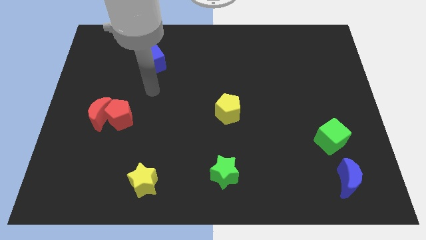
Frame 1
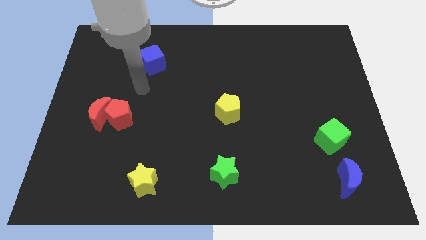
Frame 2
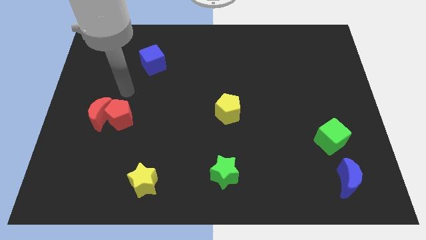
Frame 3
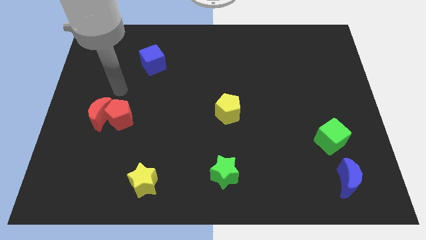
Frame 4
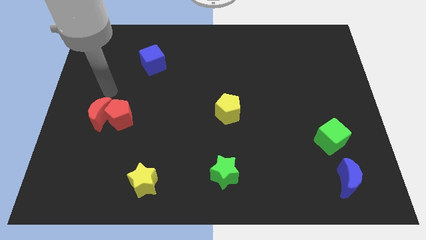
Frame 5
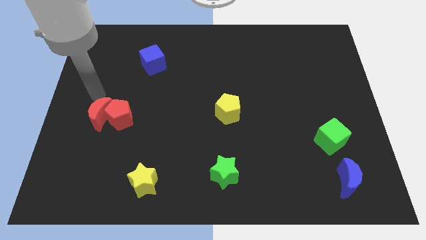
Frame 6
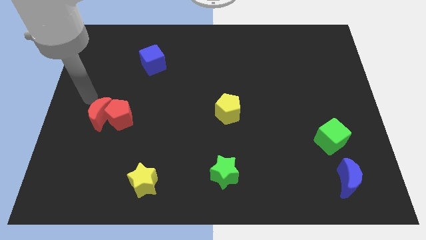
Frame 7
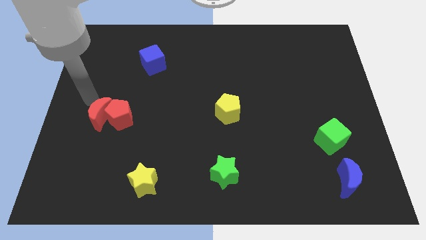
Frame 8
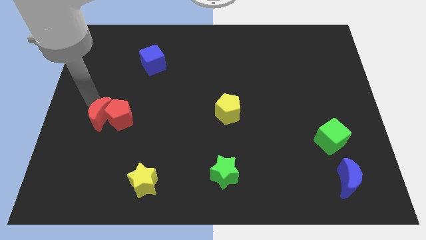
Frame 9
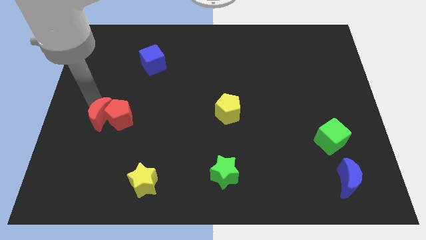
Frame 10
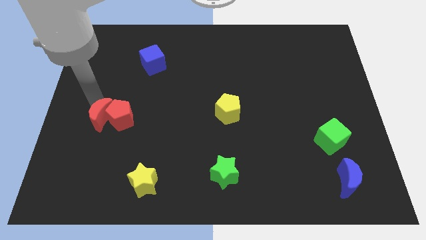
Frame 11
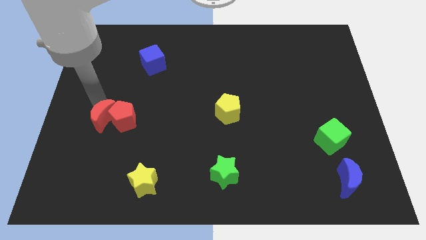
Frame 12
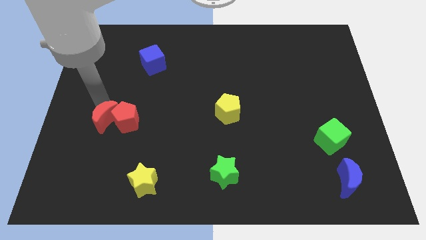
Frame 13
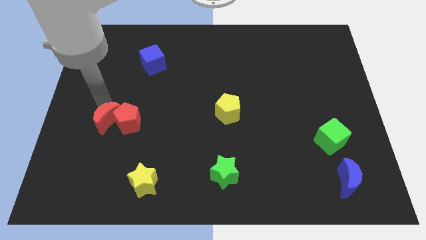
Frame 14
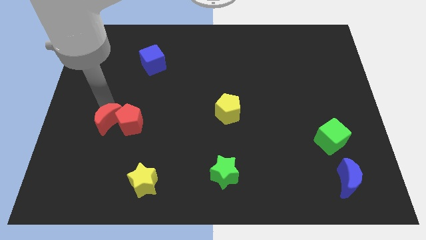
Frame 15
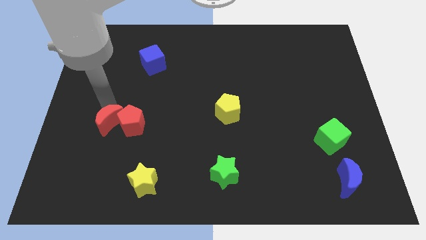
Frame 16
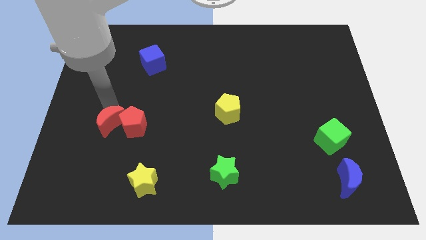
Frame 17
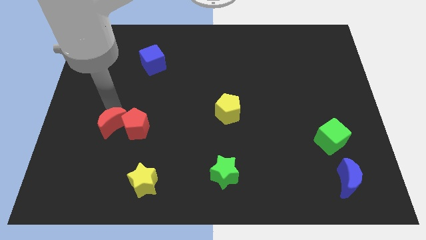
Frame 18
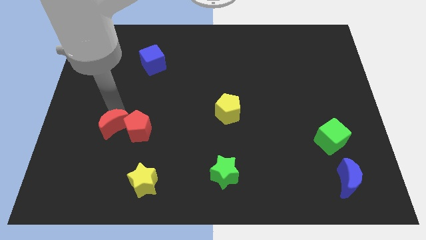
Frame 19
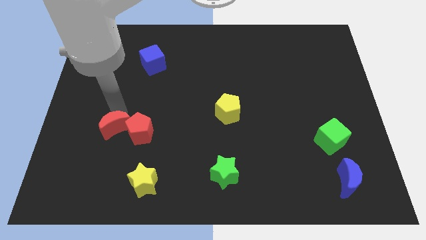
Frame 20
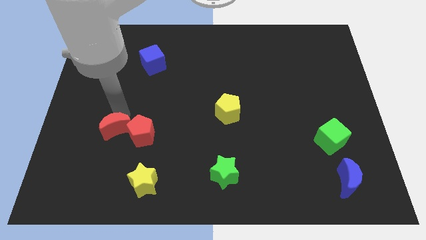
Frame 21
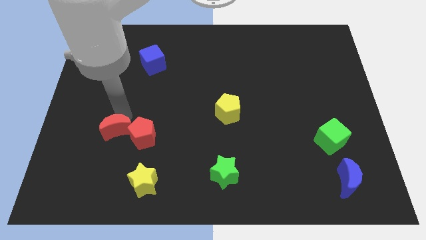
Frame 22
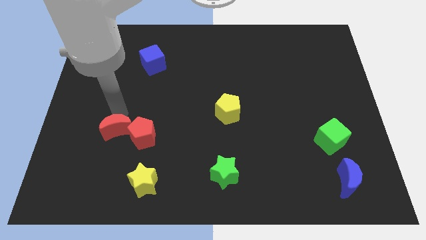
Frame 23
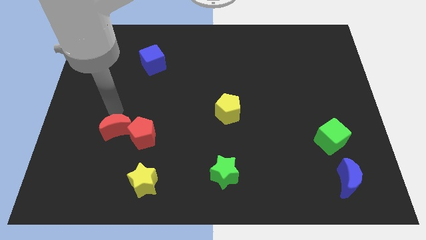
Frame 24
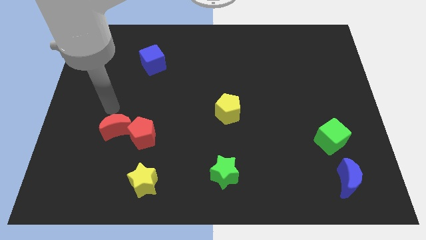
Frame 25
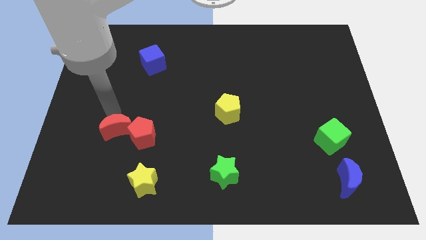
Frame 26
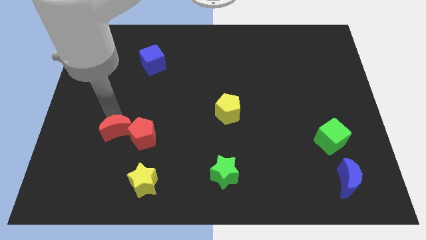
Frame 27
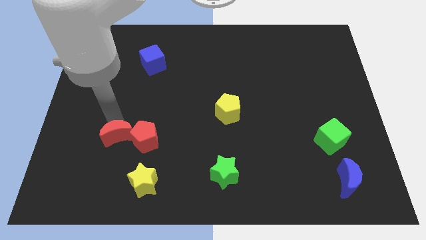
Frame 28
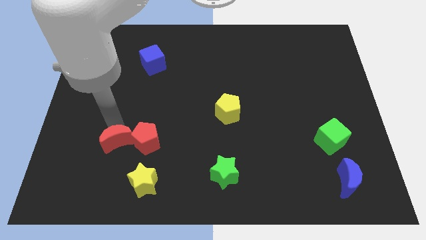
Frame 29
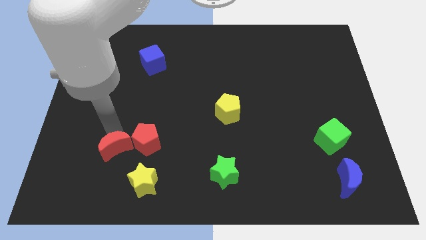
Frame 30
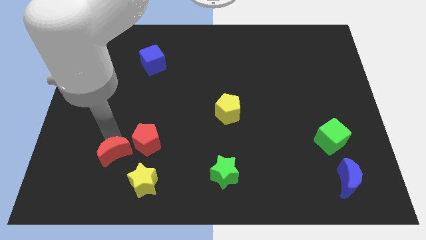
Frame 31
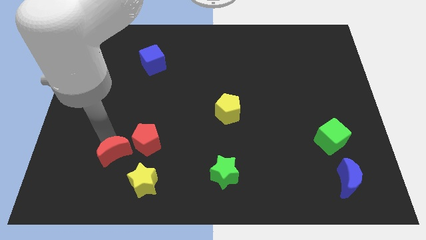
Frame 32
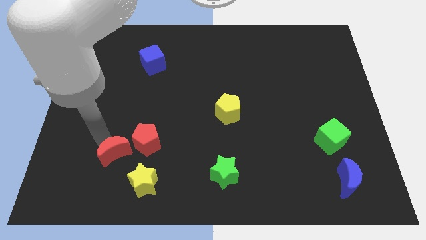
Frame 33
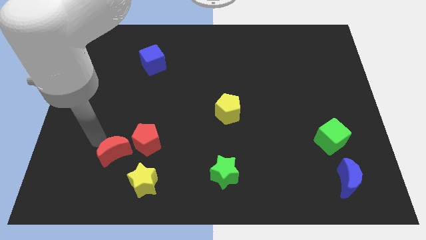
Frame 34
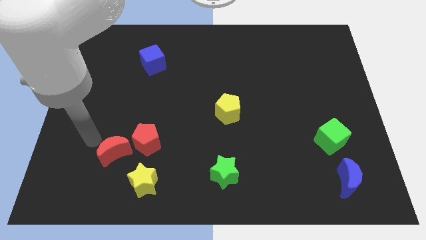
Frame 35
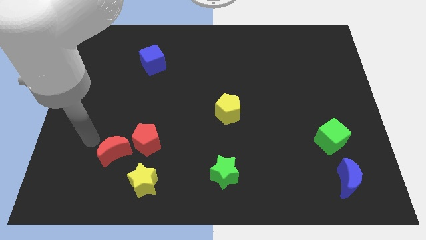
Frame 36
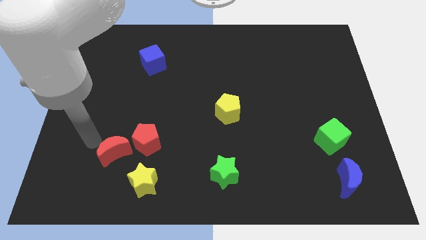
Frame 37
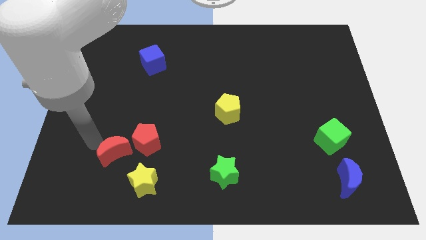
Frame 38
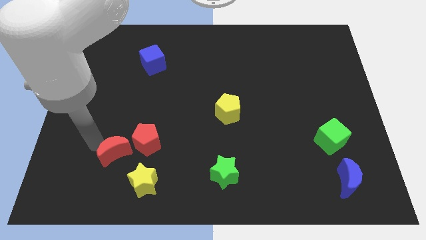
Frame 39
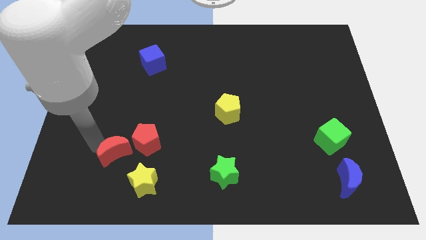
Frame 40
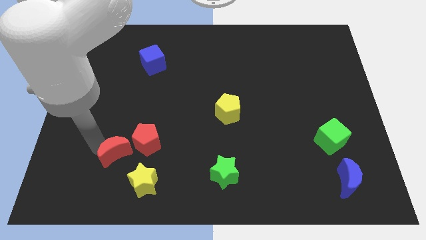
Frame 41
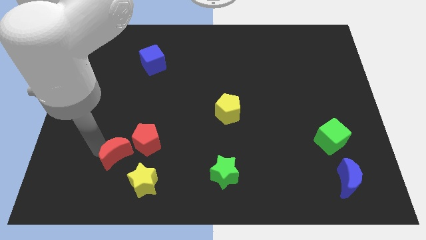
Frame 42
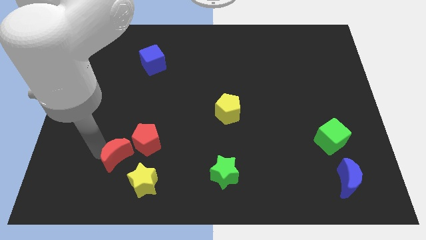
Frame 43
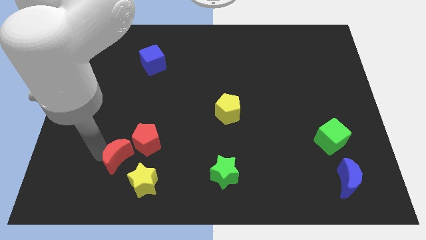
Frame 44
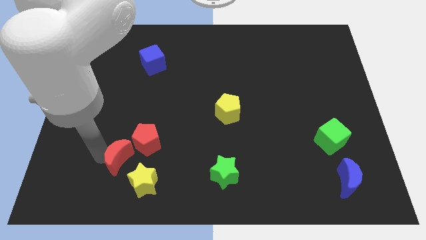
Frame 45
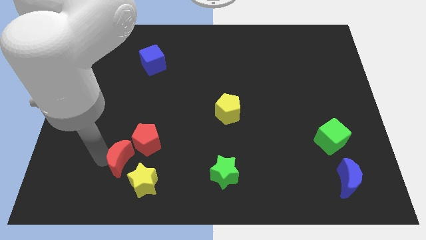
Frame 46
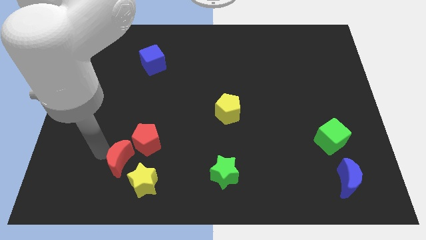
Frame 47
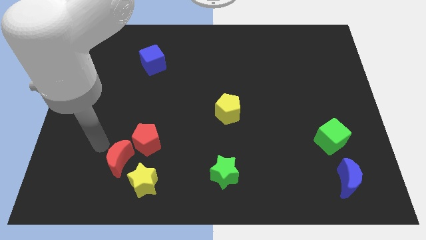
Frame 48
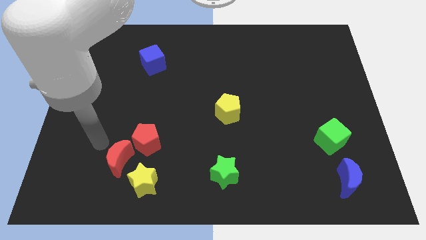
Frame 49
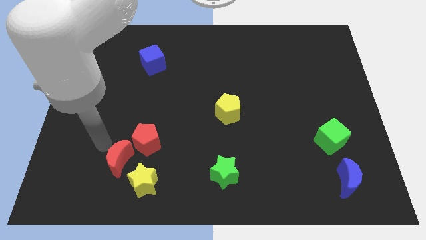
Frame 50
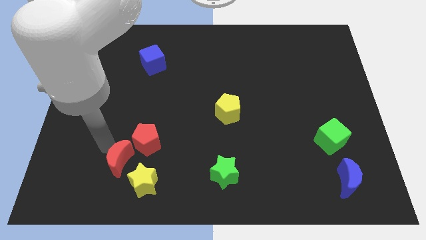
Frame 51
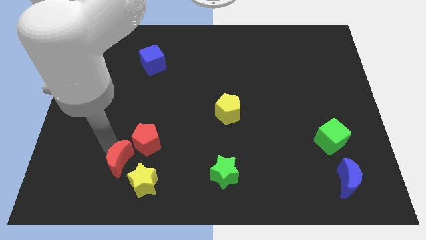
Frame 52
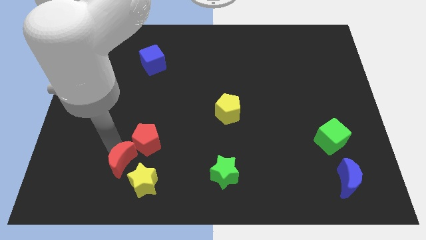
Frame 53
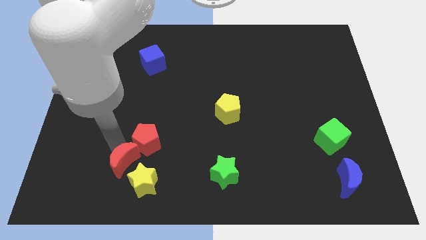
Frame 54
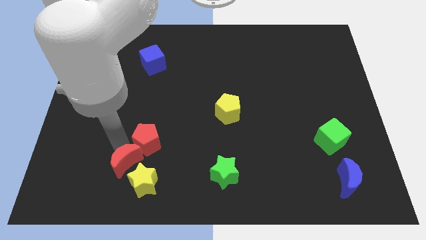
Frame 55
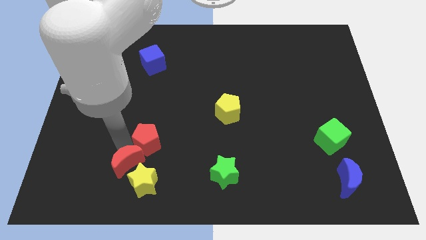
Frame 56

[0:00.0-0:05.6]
put the red moon close to the yellow star

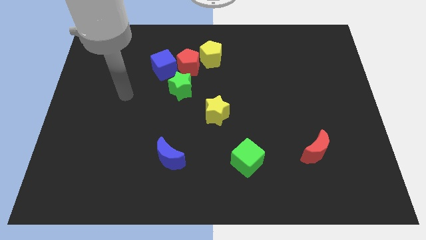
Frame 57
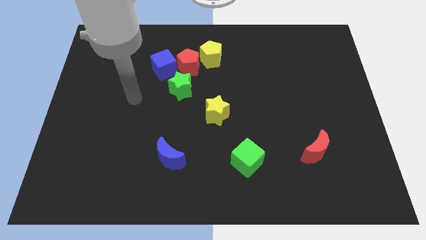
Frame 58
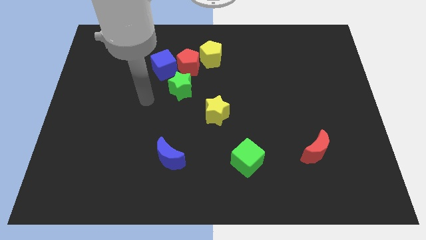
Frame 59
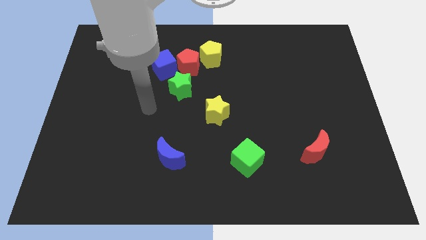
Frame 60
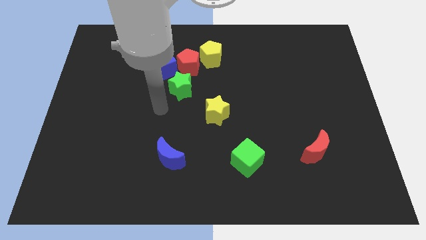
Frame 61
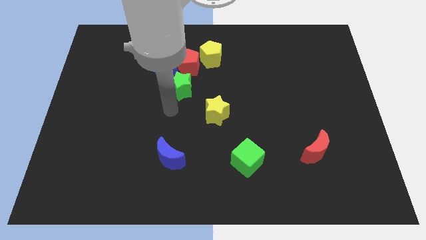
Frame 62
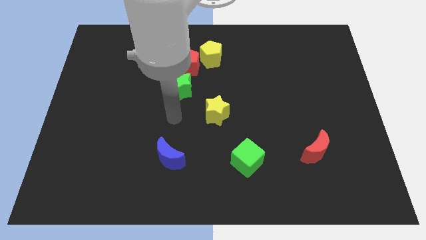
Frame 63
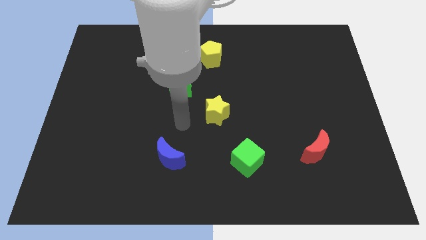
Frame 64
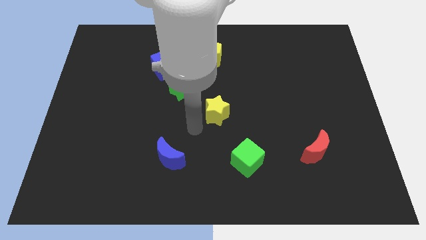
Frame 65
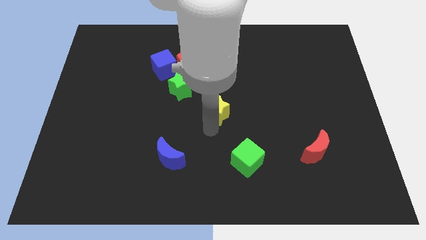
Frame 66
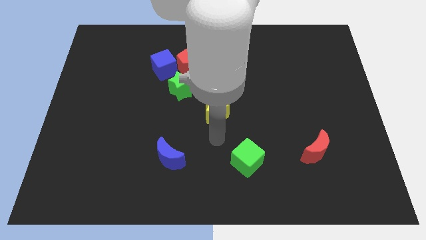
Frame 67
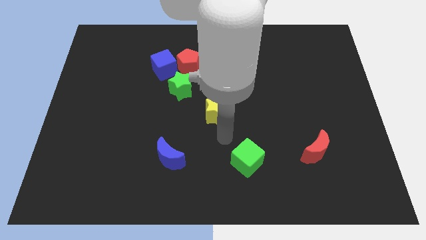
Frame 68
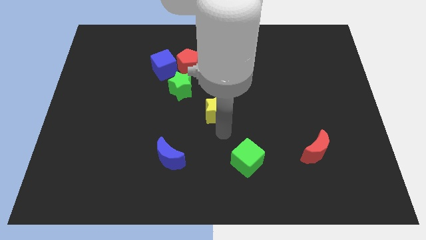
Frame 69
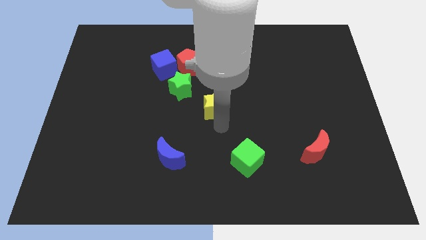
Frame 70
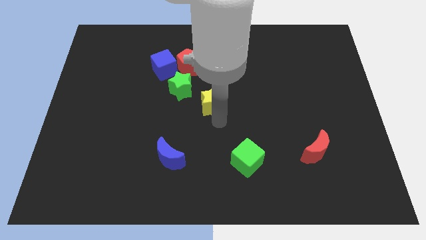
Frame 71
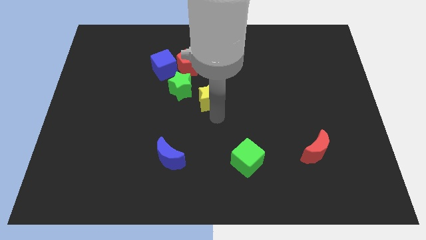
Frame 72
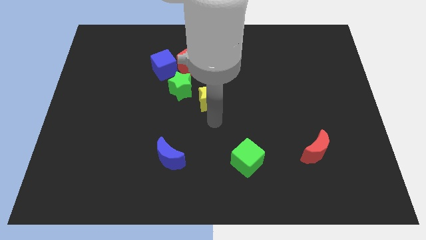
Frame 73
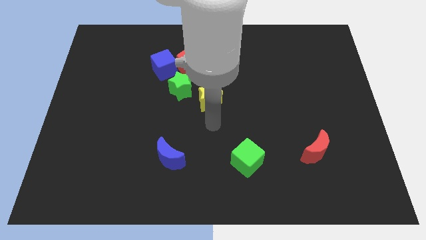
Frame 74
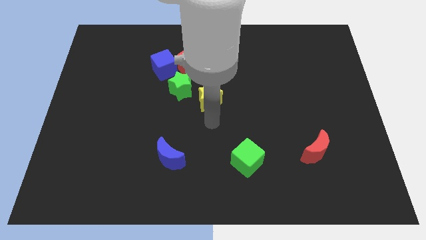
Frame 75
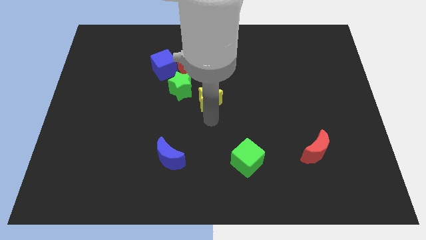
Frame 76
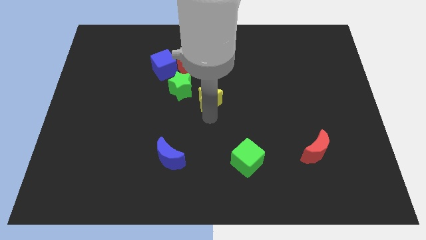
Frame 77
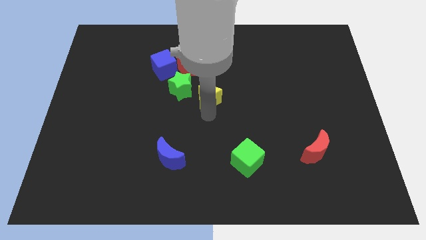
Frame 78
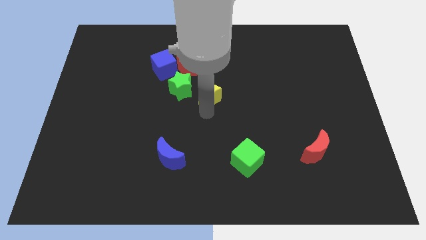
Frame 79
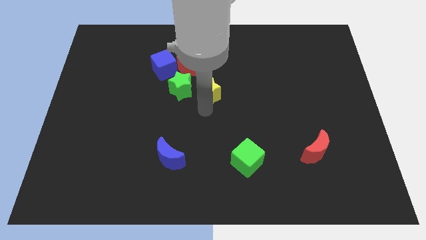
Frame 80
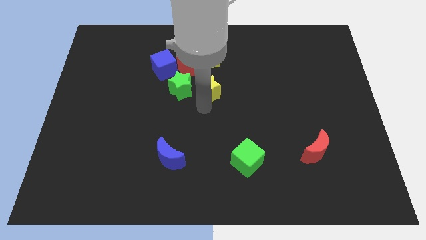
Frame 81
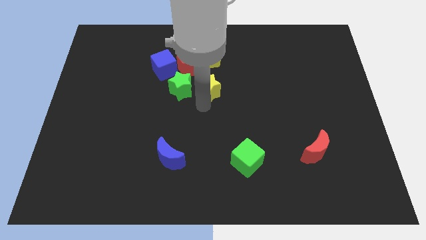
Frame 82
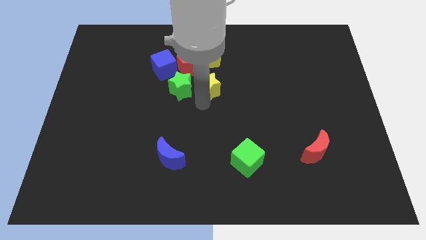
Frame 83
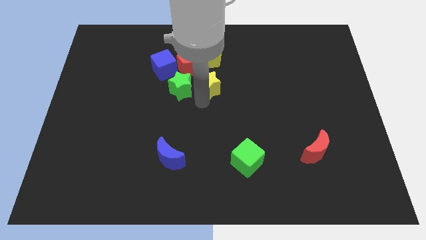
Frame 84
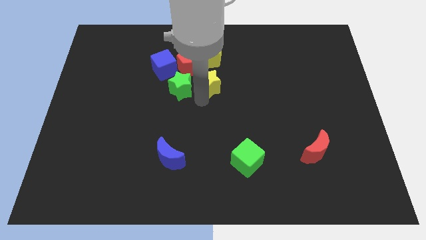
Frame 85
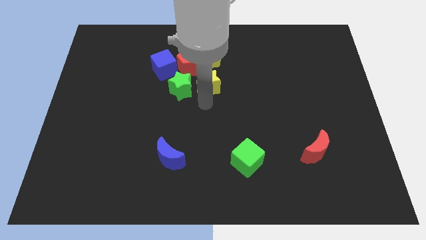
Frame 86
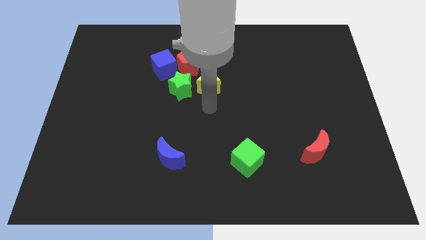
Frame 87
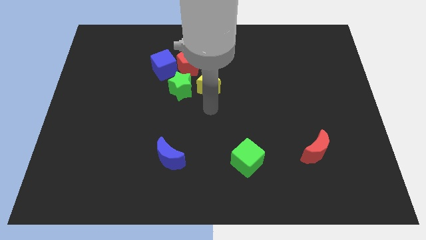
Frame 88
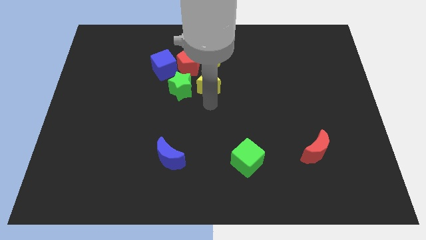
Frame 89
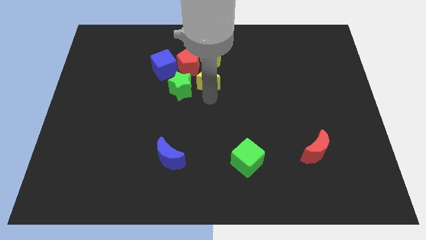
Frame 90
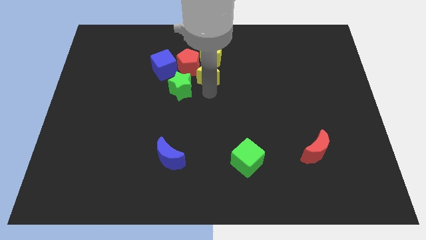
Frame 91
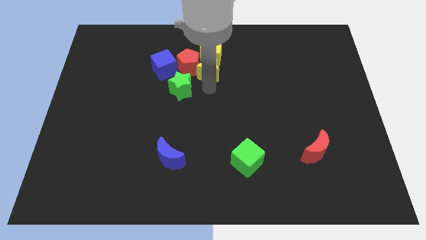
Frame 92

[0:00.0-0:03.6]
push the yellow star next to the yellow pentagon
